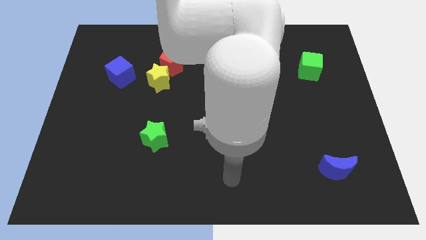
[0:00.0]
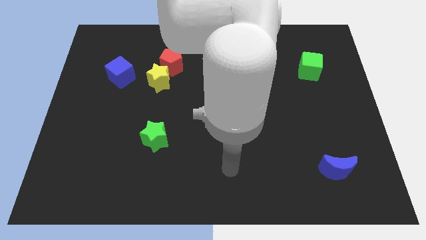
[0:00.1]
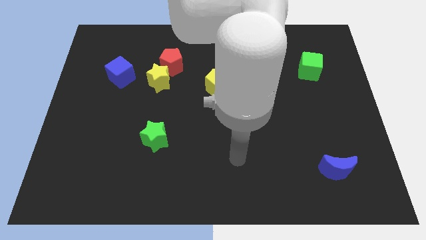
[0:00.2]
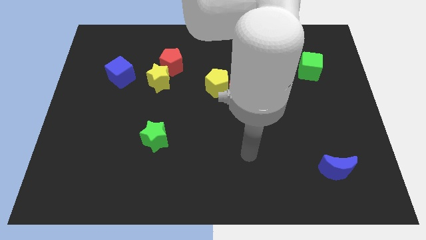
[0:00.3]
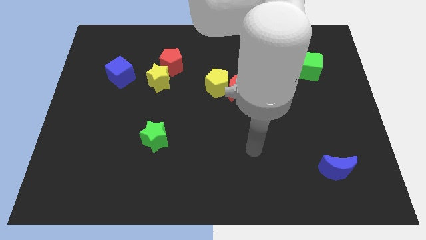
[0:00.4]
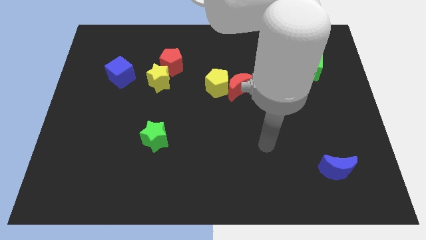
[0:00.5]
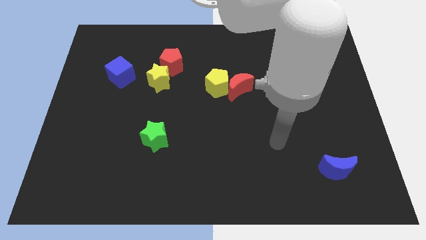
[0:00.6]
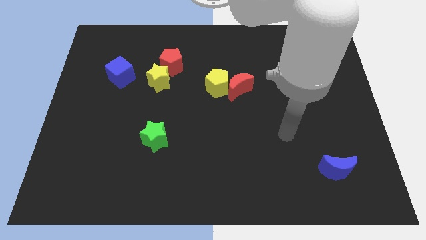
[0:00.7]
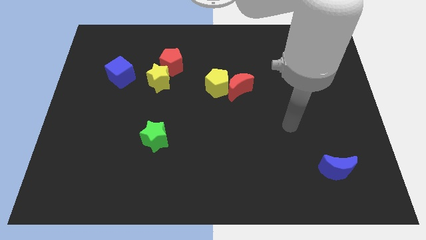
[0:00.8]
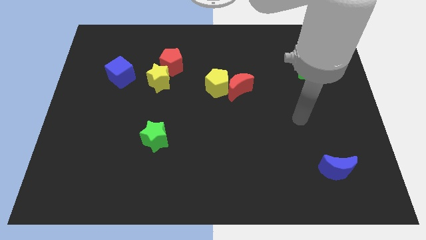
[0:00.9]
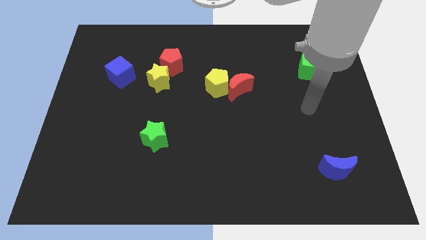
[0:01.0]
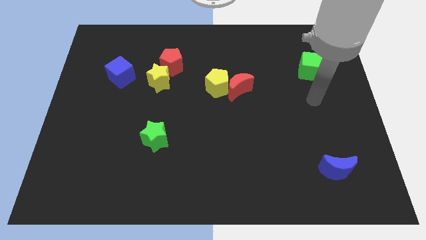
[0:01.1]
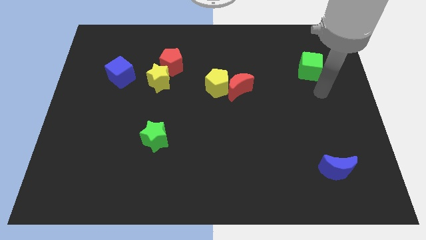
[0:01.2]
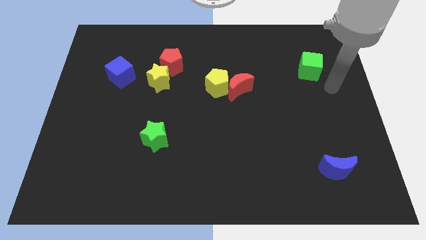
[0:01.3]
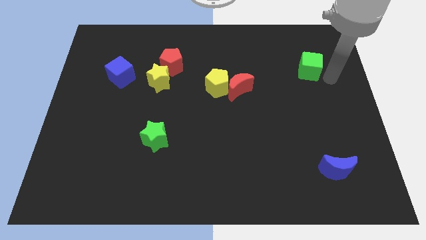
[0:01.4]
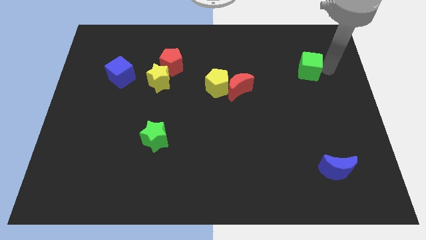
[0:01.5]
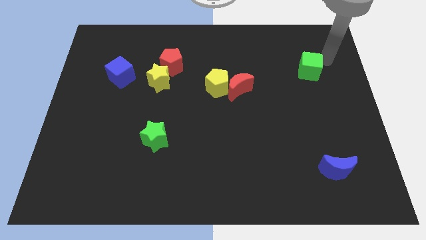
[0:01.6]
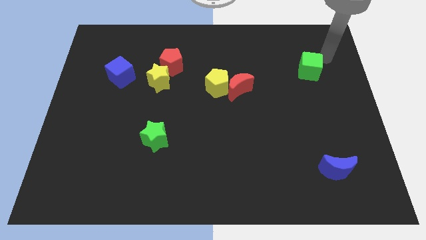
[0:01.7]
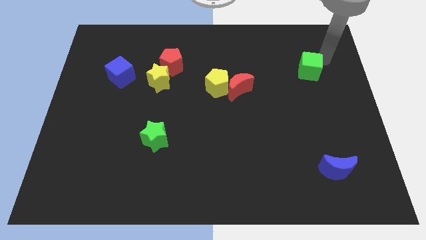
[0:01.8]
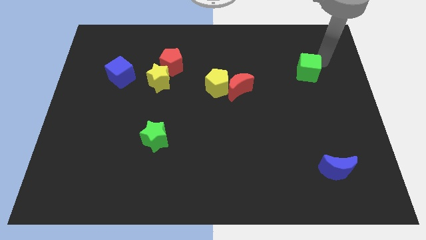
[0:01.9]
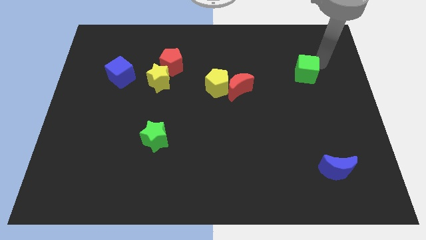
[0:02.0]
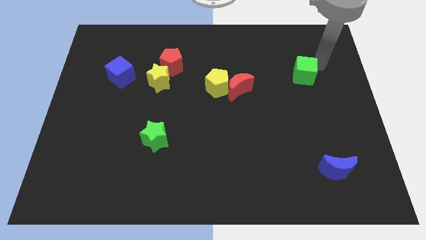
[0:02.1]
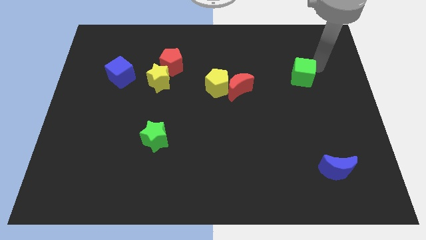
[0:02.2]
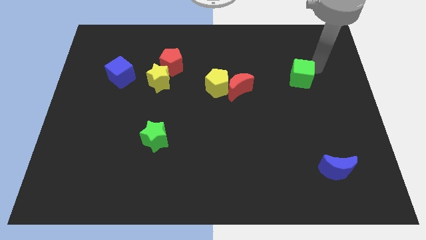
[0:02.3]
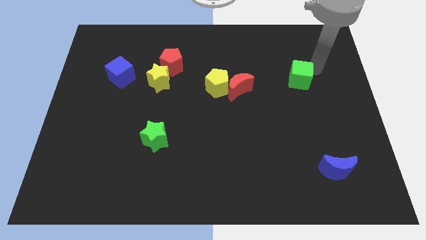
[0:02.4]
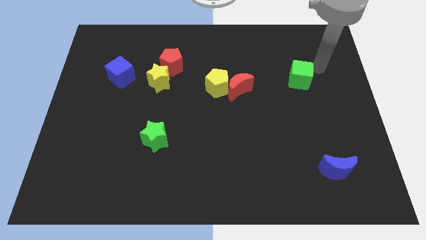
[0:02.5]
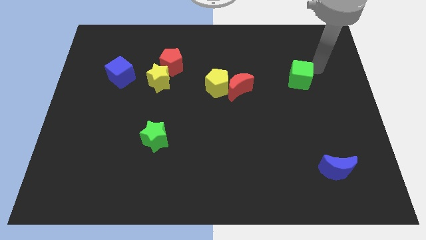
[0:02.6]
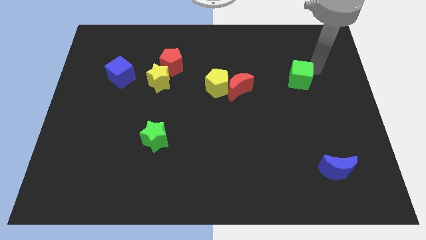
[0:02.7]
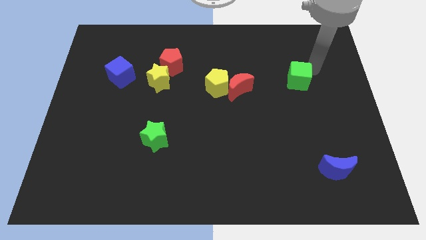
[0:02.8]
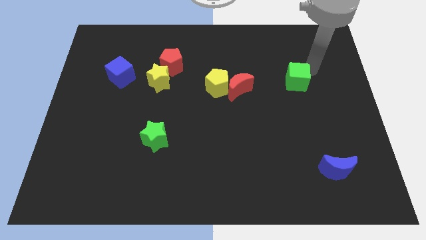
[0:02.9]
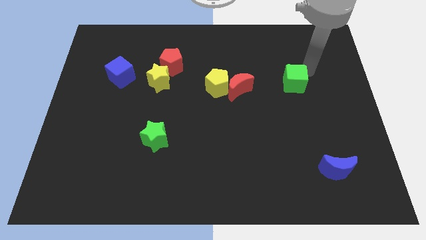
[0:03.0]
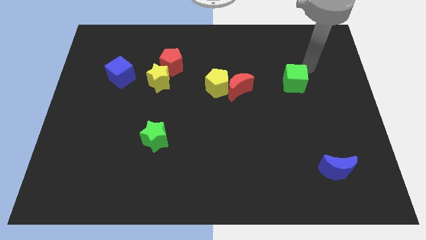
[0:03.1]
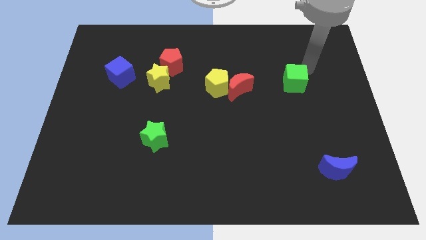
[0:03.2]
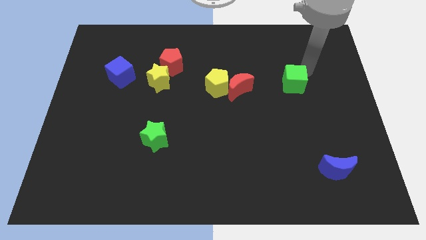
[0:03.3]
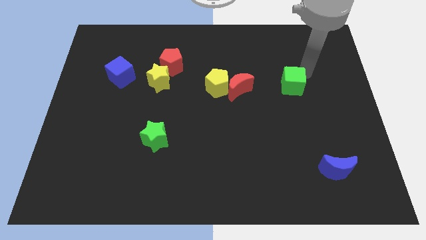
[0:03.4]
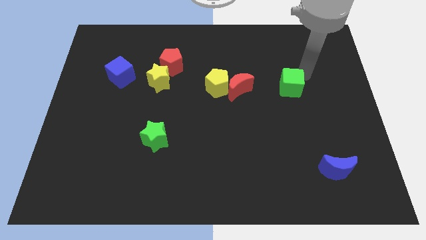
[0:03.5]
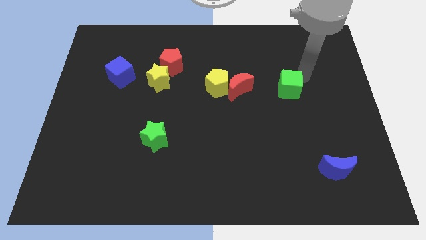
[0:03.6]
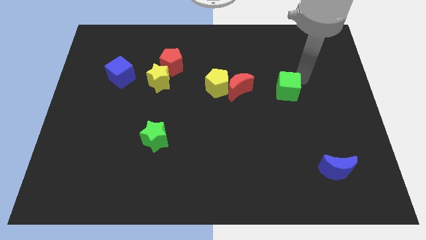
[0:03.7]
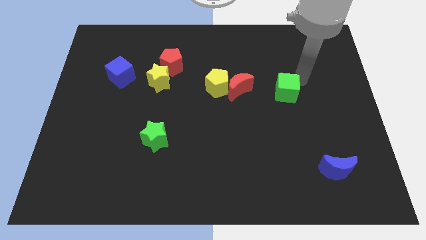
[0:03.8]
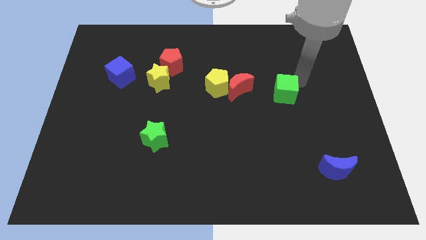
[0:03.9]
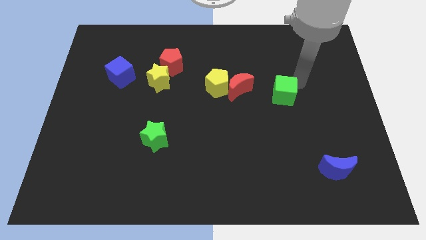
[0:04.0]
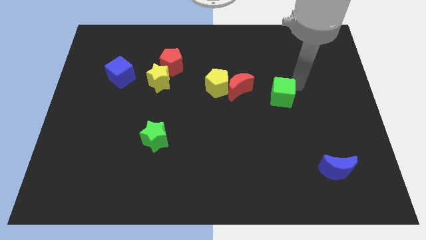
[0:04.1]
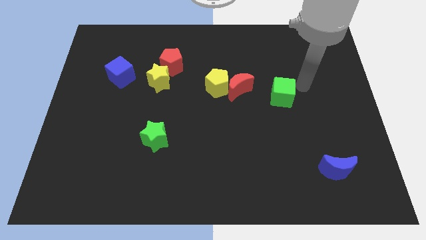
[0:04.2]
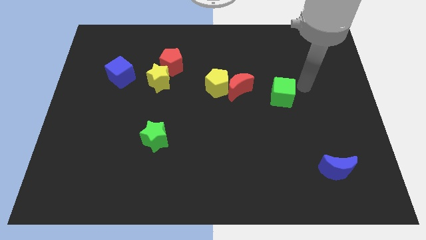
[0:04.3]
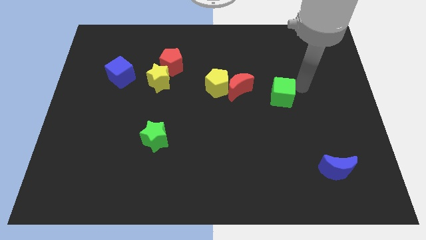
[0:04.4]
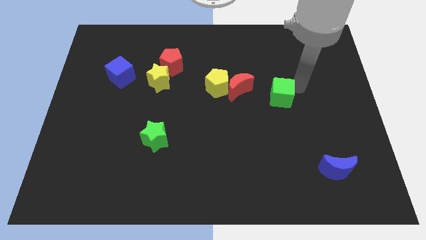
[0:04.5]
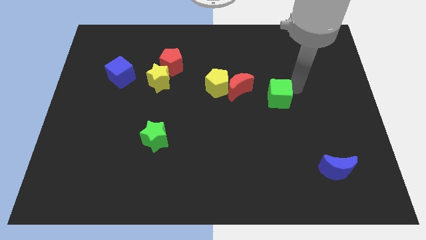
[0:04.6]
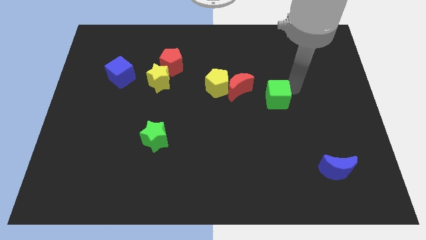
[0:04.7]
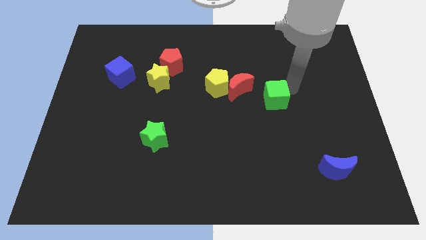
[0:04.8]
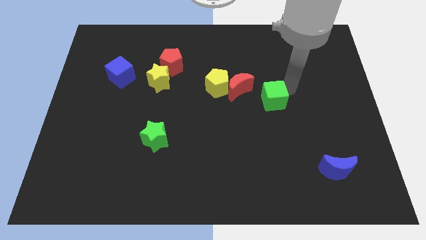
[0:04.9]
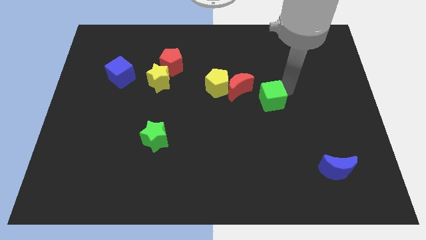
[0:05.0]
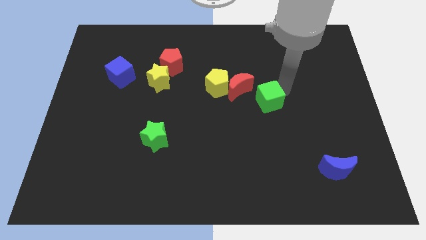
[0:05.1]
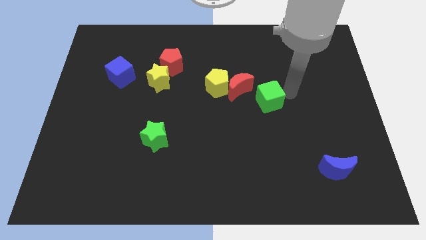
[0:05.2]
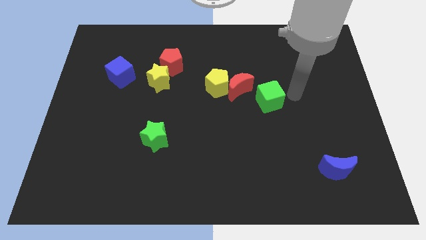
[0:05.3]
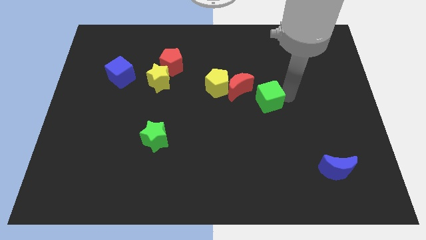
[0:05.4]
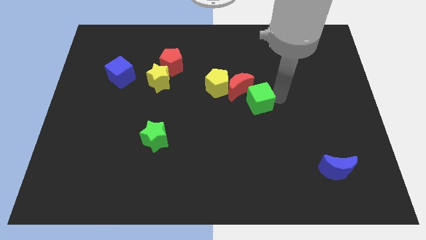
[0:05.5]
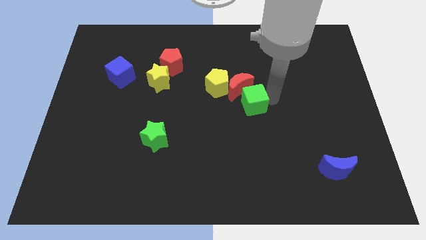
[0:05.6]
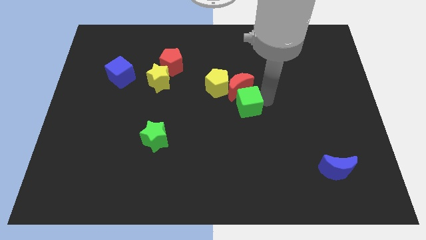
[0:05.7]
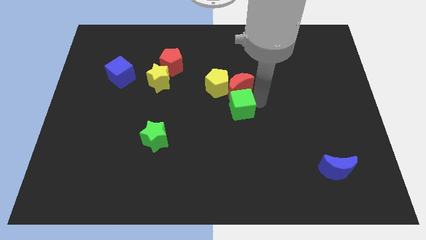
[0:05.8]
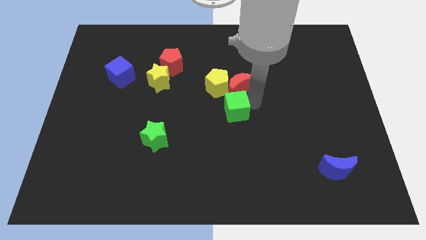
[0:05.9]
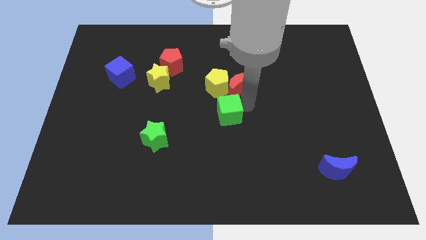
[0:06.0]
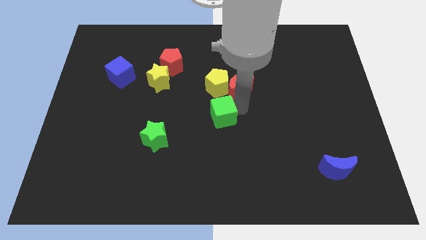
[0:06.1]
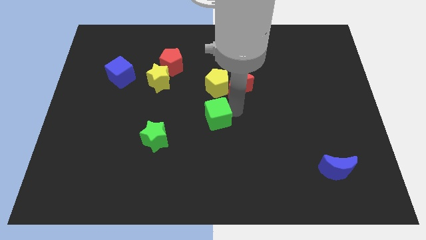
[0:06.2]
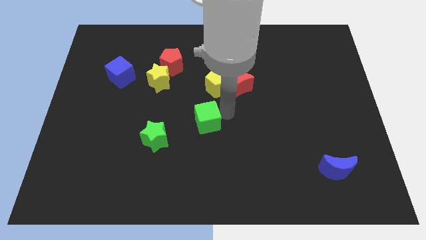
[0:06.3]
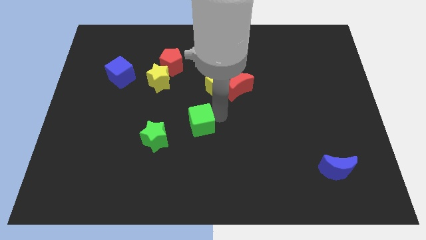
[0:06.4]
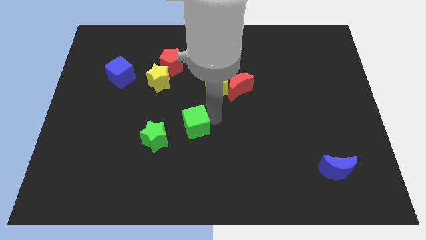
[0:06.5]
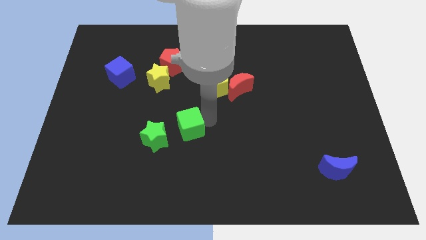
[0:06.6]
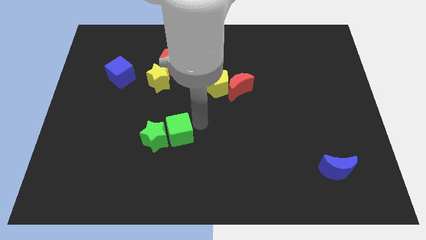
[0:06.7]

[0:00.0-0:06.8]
put the green cube to the green star

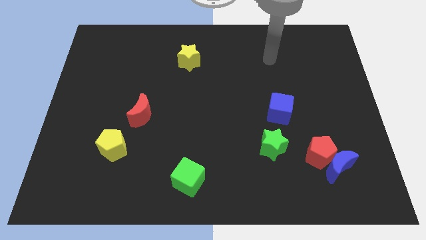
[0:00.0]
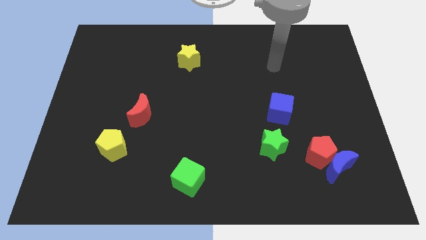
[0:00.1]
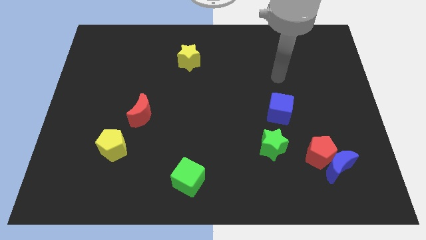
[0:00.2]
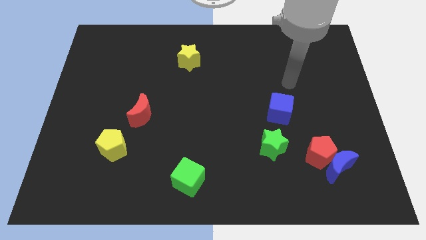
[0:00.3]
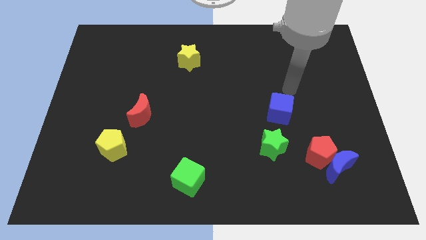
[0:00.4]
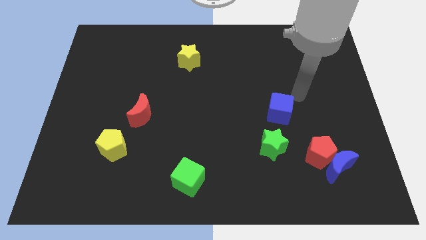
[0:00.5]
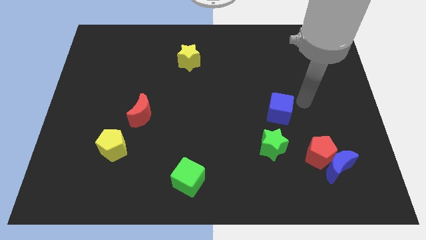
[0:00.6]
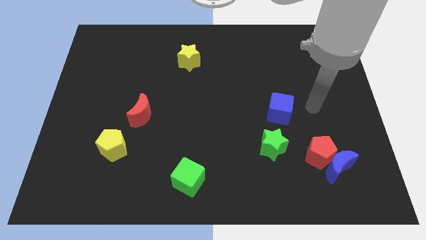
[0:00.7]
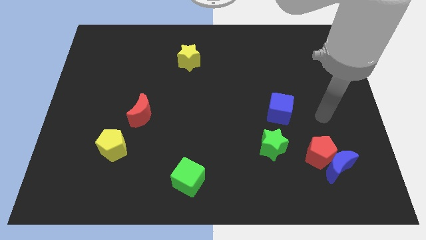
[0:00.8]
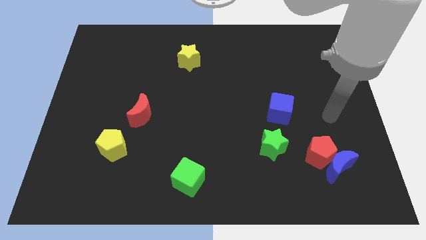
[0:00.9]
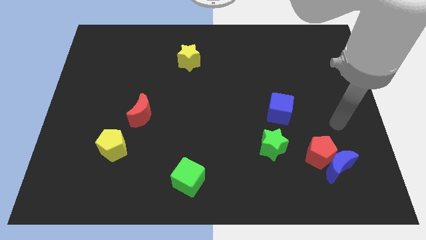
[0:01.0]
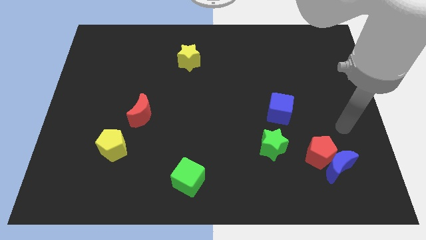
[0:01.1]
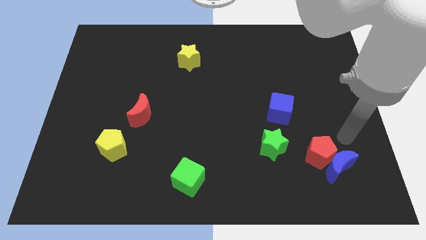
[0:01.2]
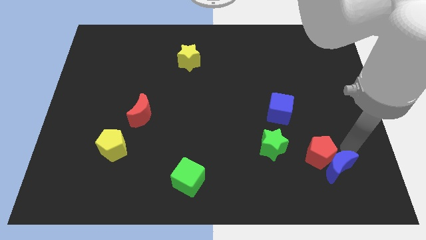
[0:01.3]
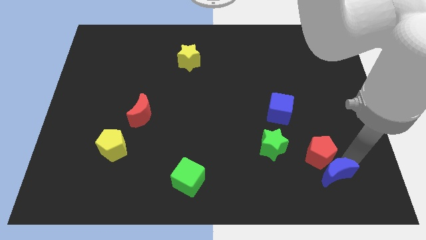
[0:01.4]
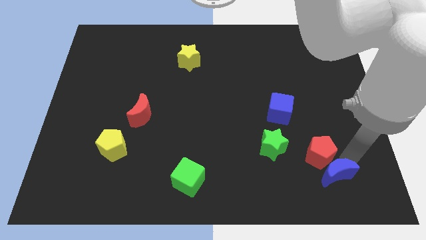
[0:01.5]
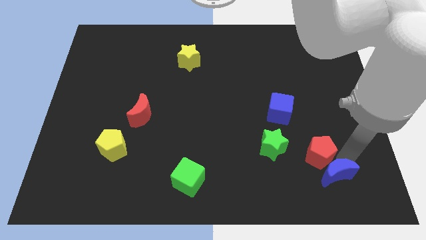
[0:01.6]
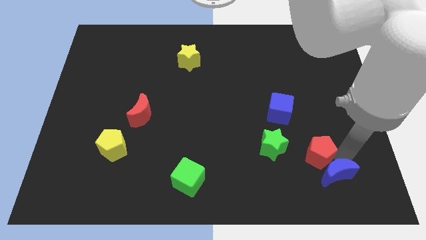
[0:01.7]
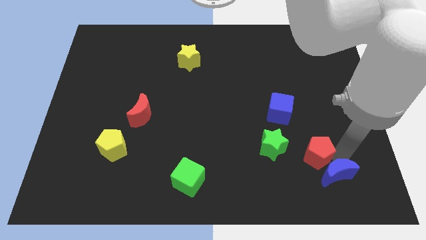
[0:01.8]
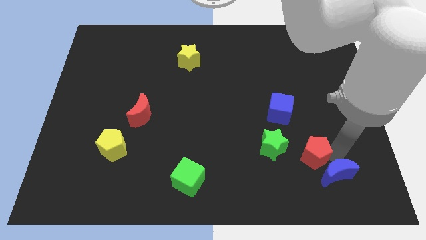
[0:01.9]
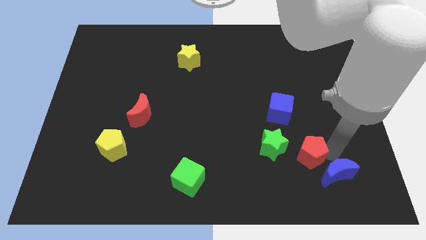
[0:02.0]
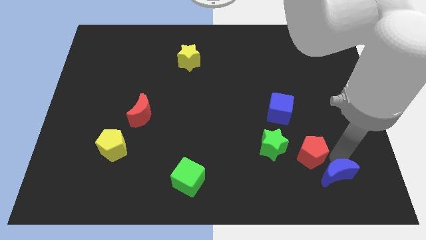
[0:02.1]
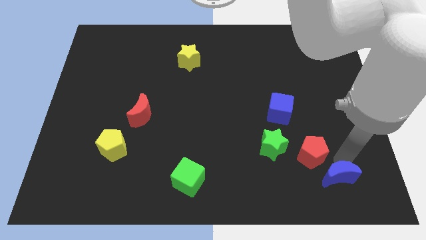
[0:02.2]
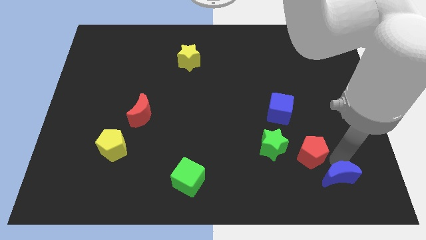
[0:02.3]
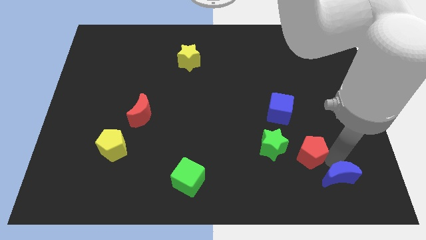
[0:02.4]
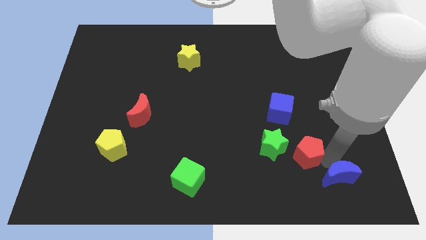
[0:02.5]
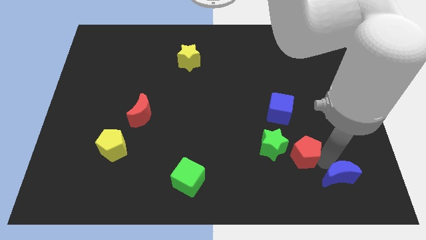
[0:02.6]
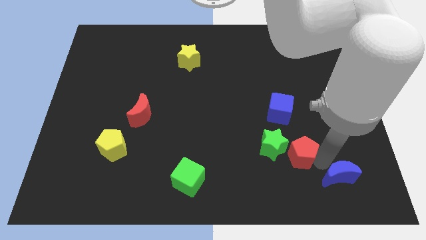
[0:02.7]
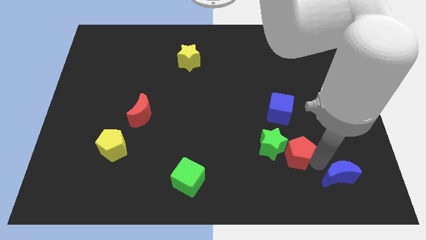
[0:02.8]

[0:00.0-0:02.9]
push the red pentagon next to the green star
